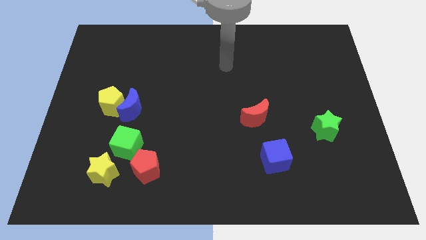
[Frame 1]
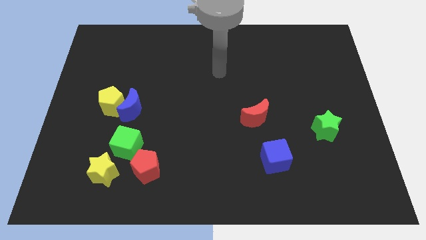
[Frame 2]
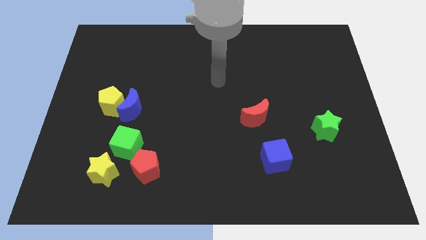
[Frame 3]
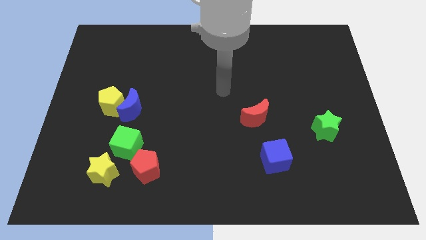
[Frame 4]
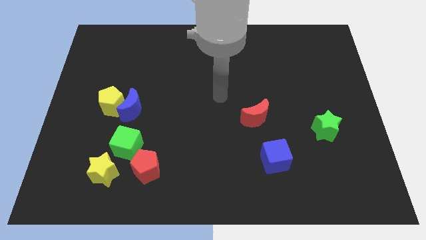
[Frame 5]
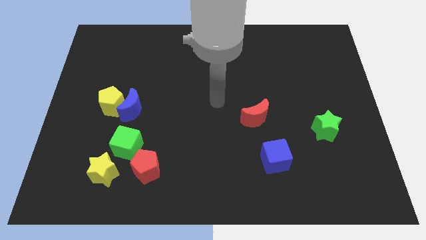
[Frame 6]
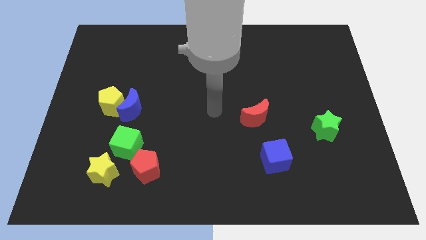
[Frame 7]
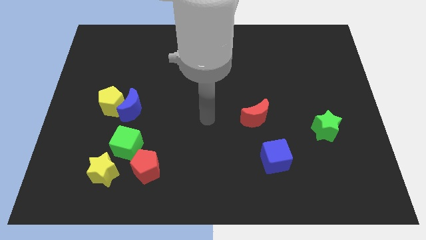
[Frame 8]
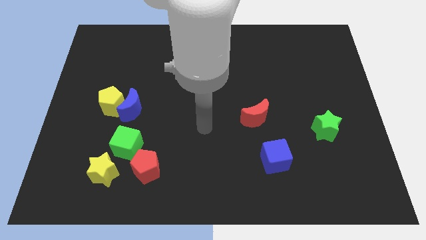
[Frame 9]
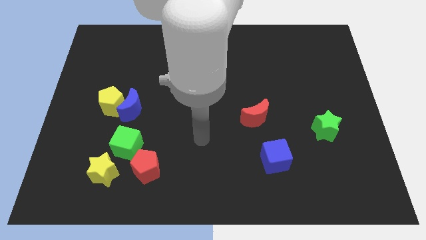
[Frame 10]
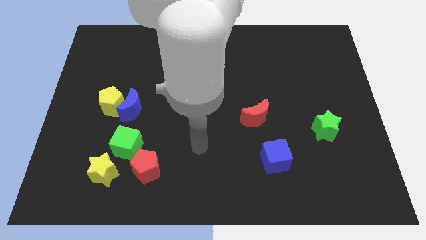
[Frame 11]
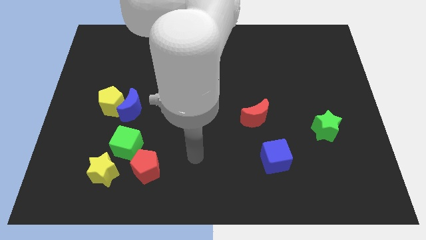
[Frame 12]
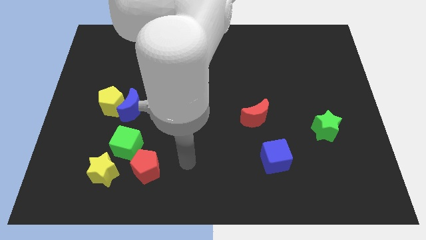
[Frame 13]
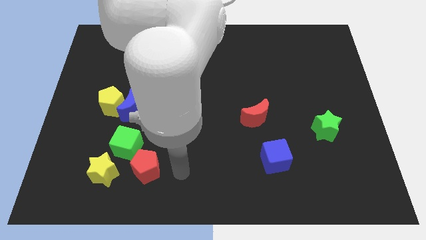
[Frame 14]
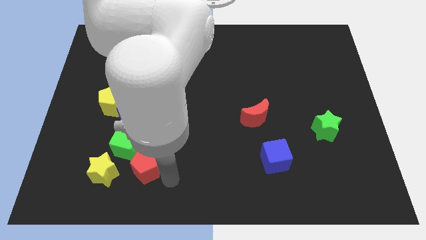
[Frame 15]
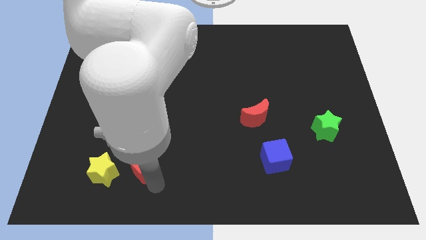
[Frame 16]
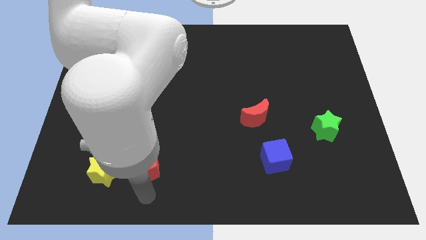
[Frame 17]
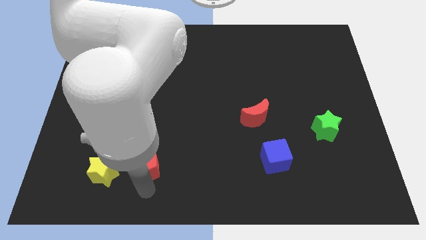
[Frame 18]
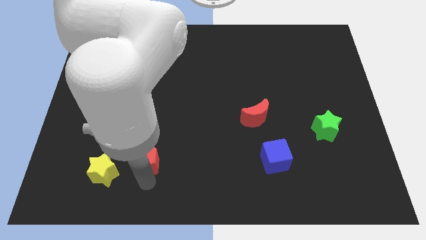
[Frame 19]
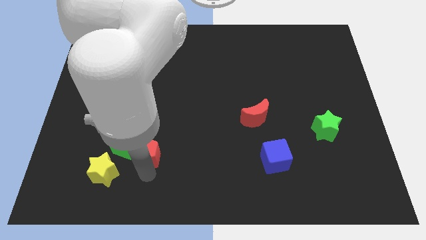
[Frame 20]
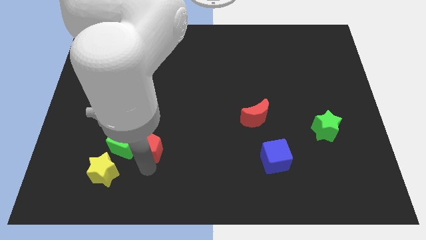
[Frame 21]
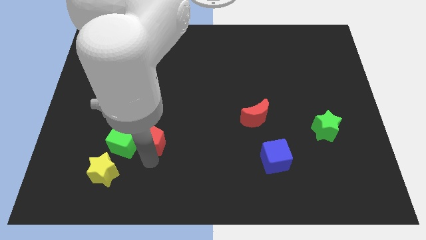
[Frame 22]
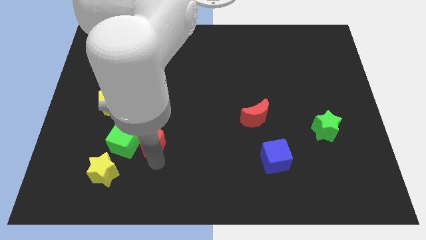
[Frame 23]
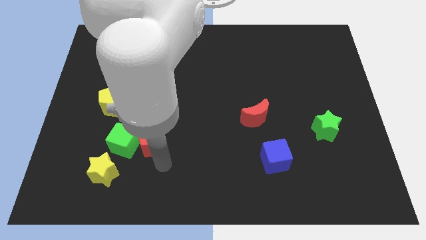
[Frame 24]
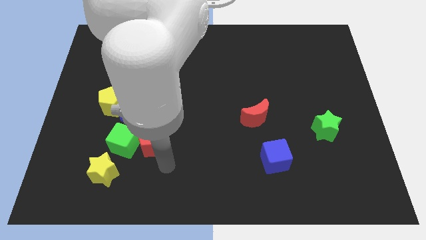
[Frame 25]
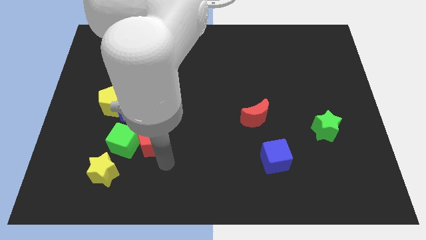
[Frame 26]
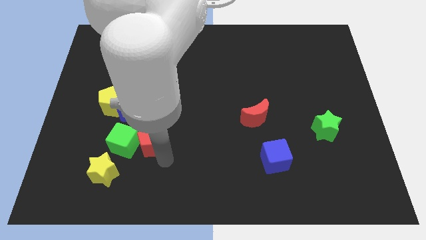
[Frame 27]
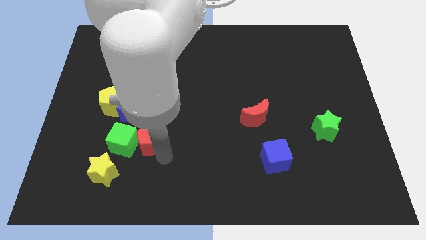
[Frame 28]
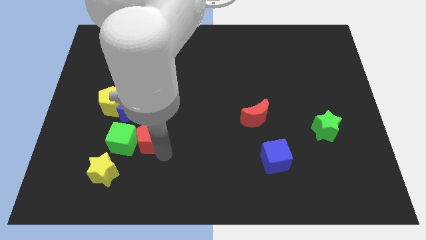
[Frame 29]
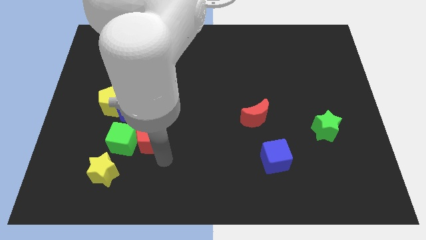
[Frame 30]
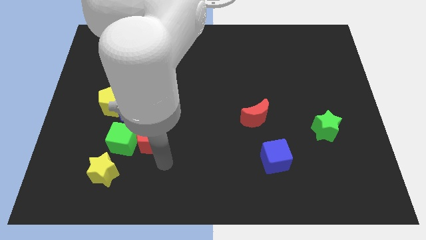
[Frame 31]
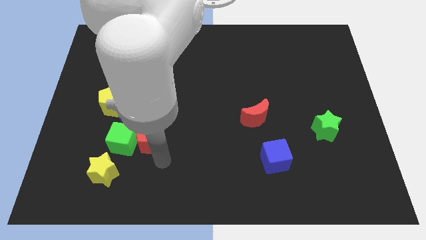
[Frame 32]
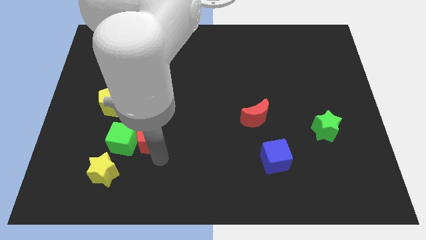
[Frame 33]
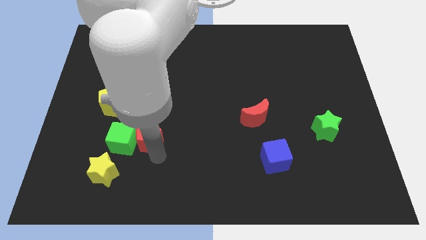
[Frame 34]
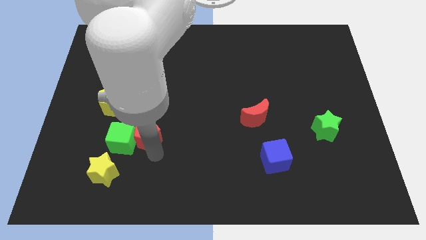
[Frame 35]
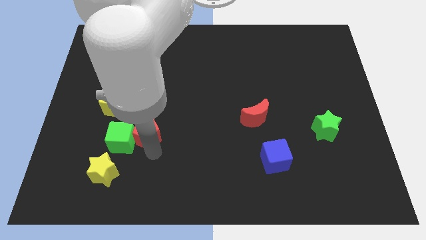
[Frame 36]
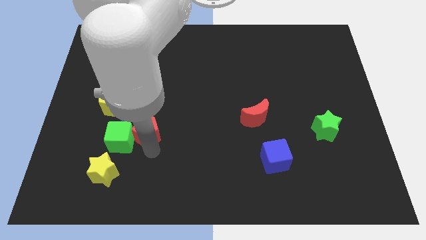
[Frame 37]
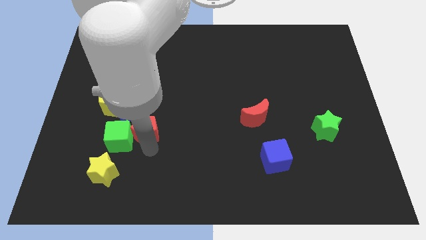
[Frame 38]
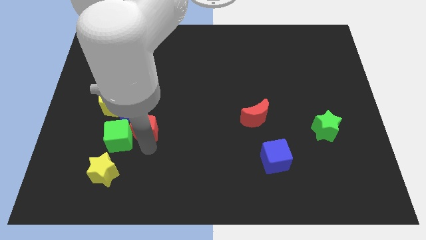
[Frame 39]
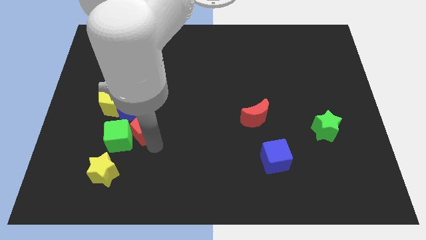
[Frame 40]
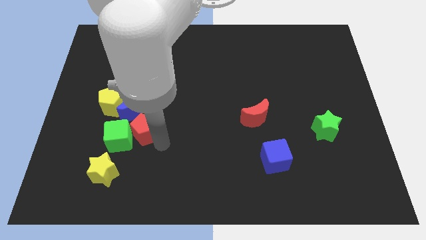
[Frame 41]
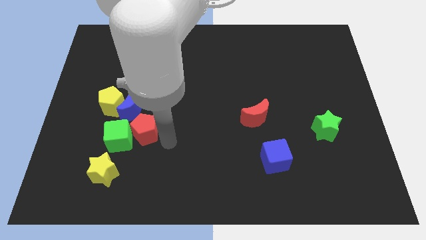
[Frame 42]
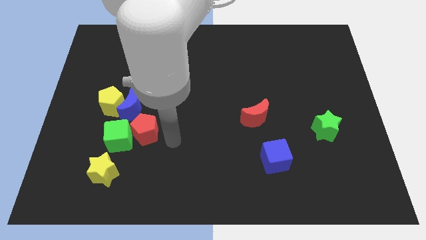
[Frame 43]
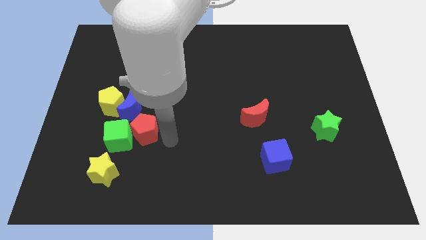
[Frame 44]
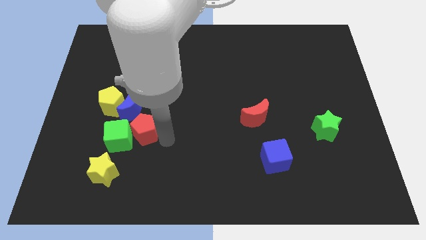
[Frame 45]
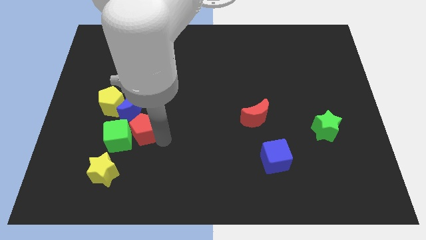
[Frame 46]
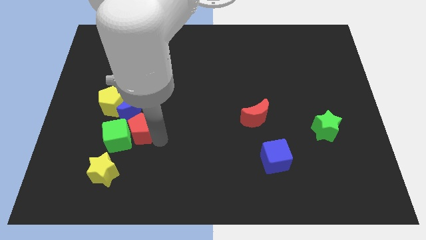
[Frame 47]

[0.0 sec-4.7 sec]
slide the red pentagon up and to the left diagonally a bit

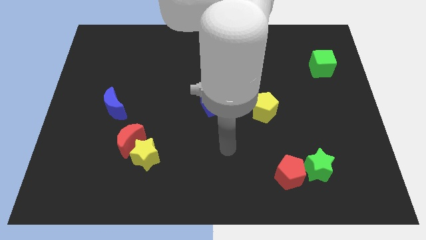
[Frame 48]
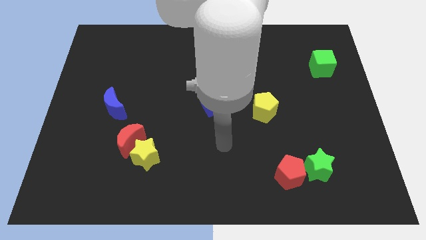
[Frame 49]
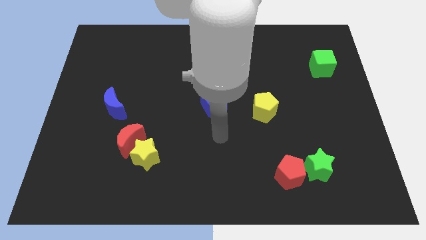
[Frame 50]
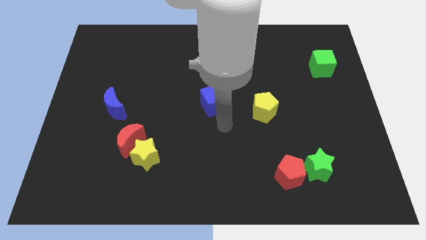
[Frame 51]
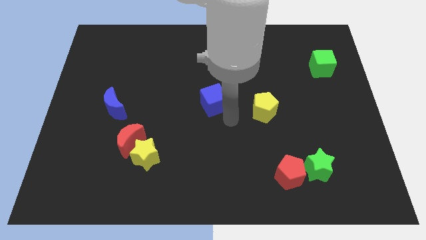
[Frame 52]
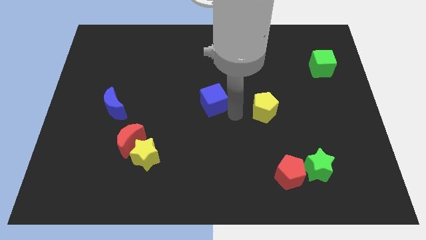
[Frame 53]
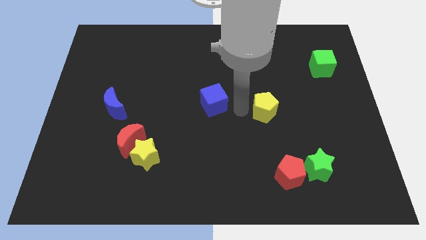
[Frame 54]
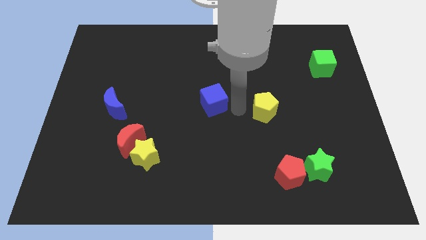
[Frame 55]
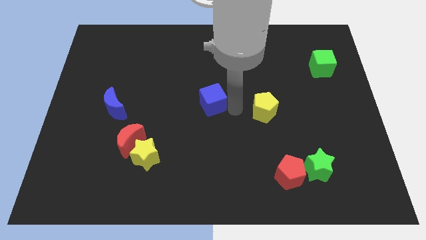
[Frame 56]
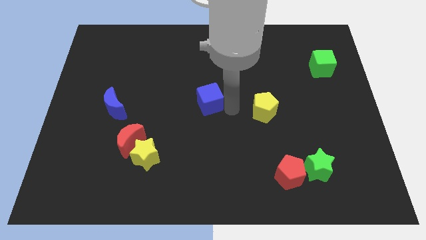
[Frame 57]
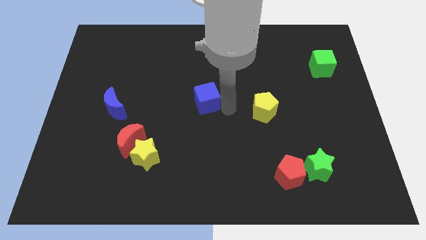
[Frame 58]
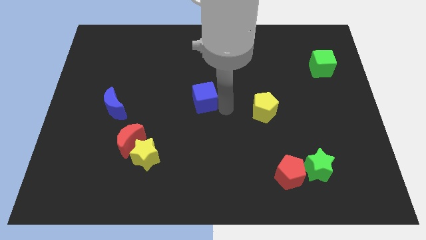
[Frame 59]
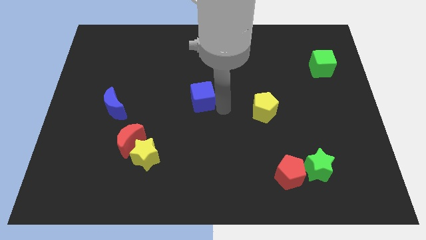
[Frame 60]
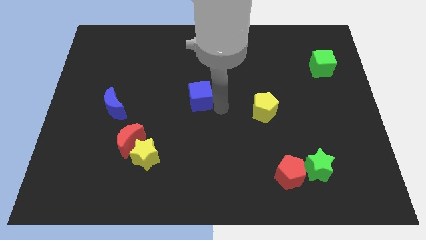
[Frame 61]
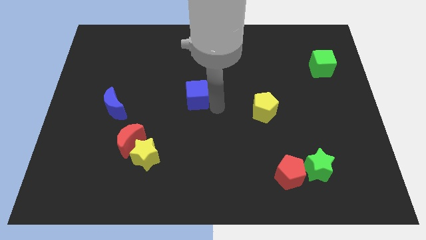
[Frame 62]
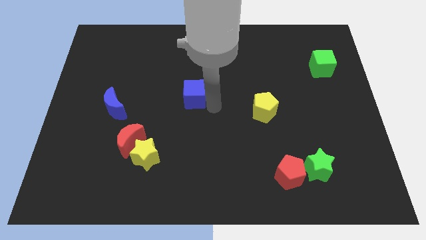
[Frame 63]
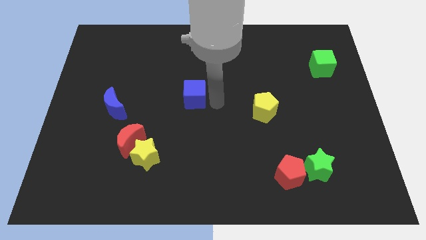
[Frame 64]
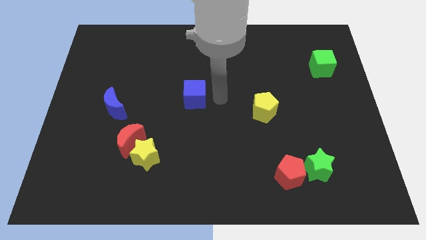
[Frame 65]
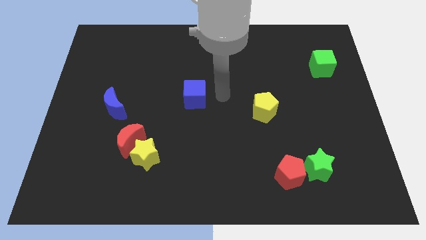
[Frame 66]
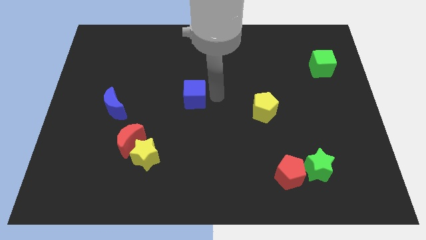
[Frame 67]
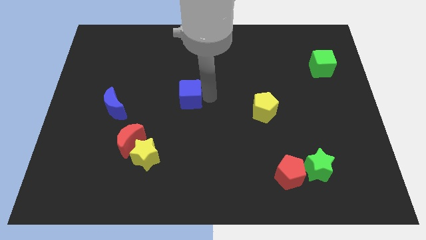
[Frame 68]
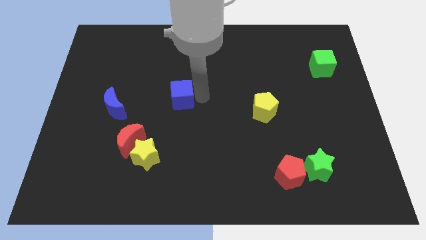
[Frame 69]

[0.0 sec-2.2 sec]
push the blue cube slightly left

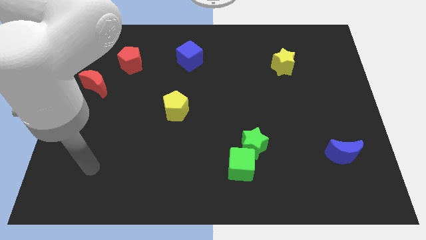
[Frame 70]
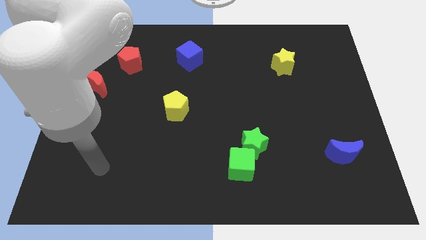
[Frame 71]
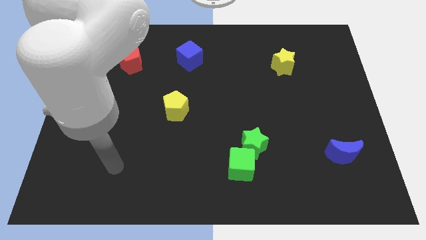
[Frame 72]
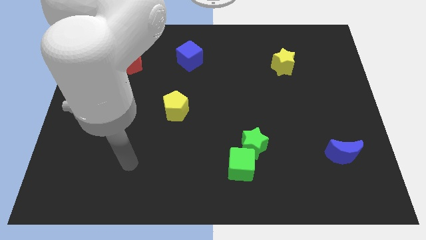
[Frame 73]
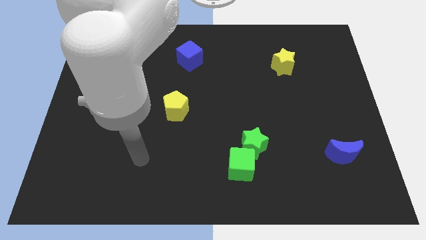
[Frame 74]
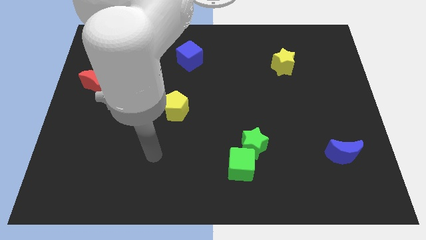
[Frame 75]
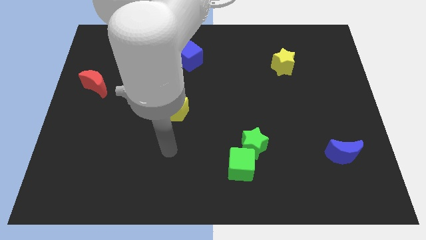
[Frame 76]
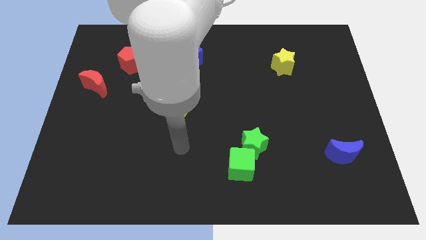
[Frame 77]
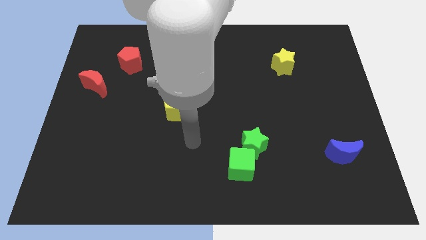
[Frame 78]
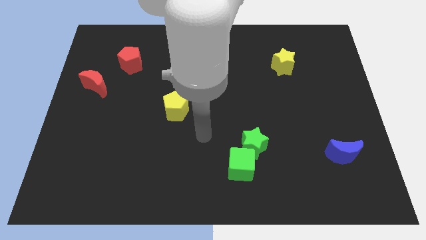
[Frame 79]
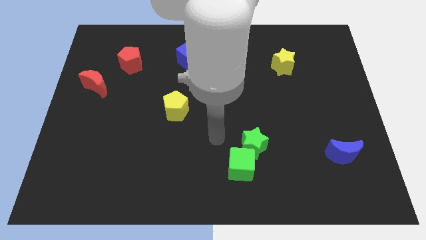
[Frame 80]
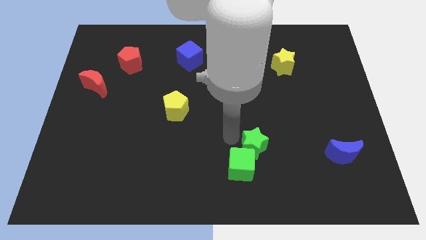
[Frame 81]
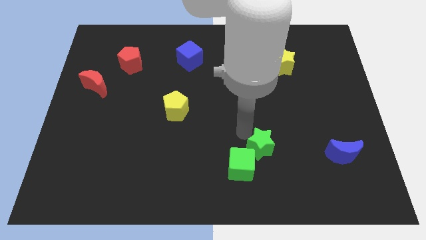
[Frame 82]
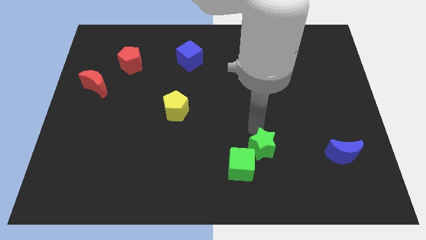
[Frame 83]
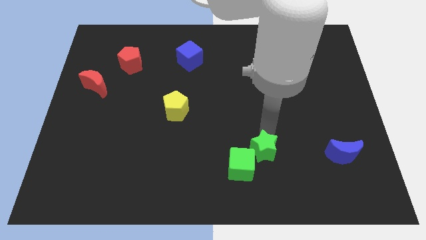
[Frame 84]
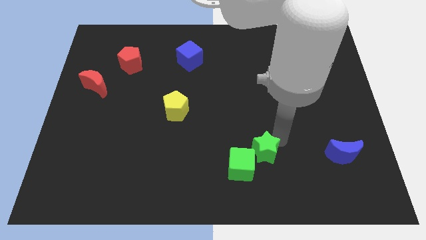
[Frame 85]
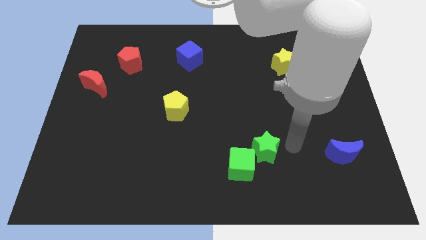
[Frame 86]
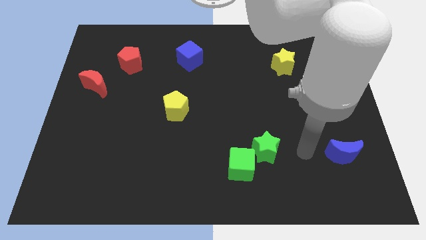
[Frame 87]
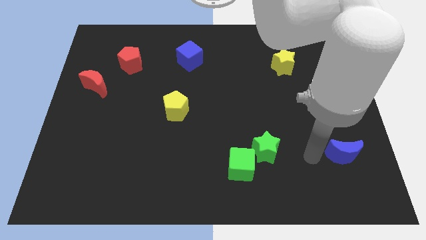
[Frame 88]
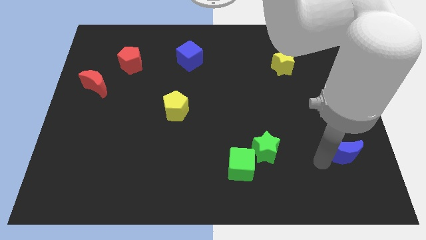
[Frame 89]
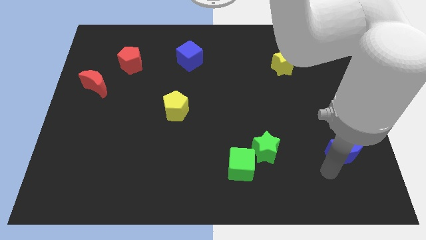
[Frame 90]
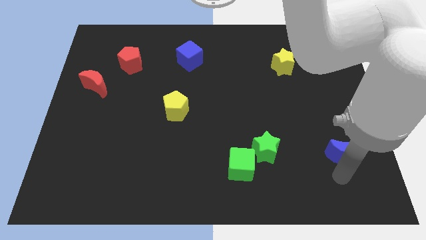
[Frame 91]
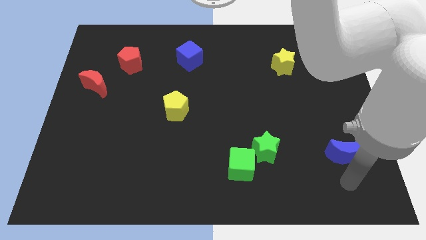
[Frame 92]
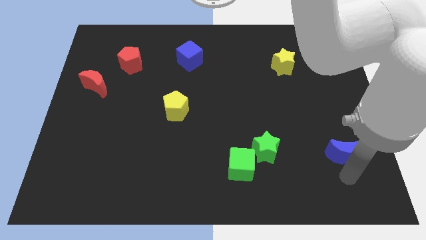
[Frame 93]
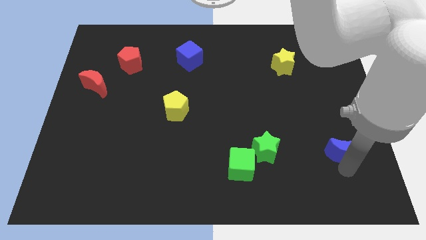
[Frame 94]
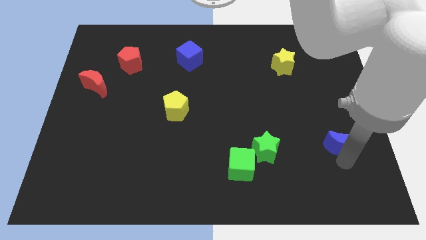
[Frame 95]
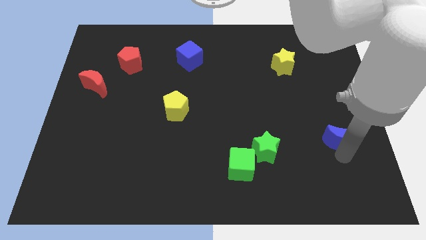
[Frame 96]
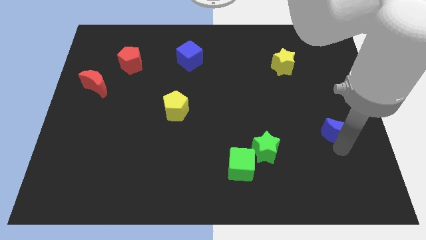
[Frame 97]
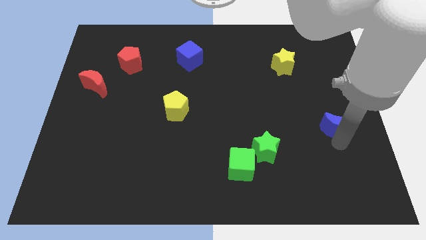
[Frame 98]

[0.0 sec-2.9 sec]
slightly push the blue moon upwards
